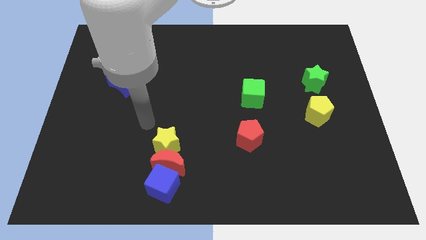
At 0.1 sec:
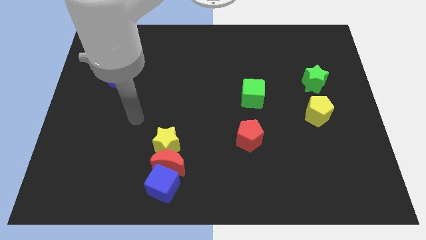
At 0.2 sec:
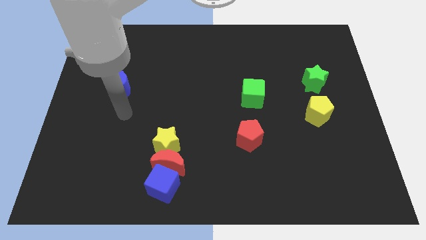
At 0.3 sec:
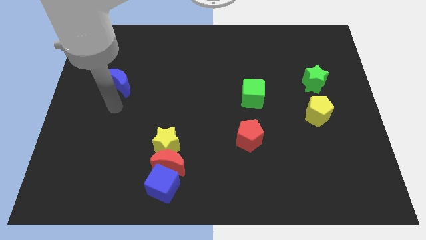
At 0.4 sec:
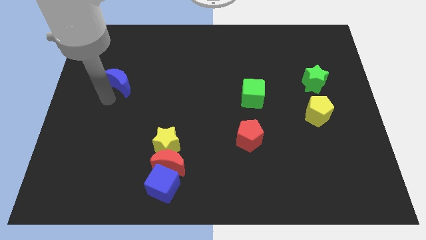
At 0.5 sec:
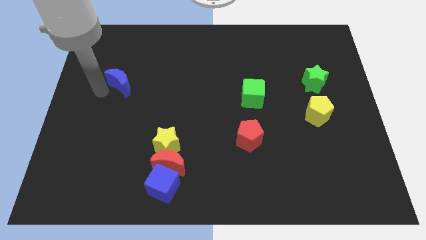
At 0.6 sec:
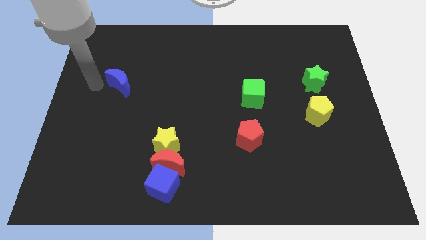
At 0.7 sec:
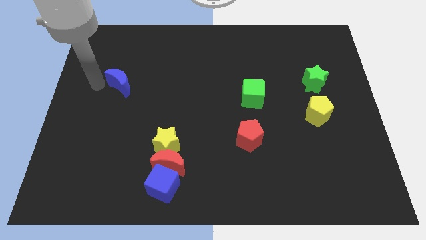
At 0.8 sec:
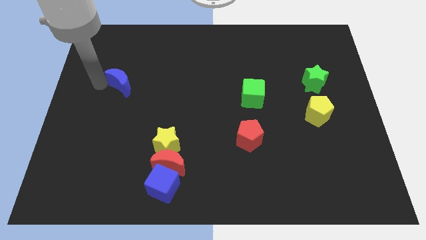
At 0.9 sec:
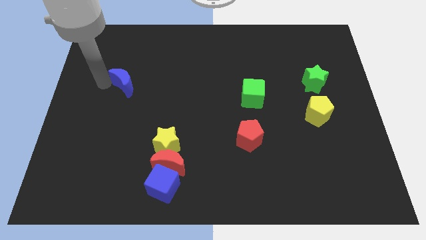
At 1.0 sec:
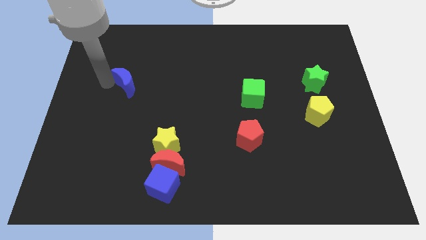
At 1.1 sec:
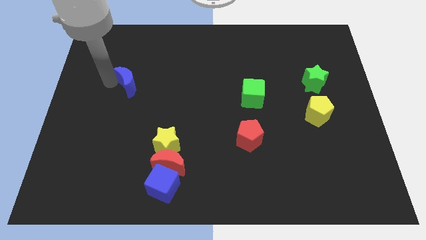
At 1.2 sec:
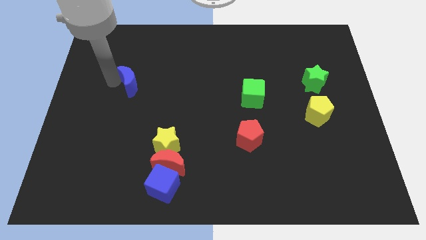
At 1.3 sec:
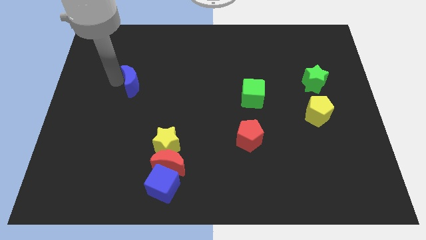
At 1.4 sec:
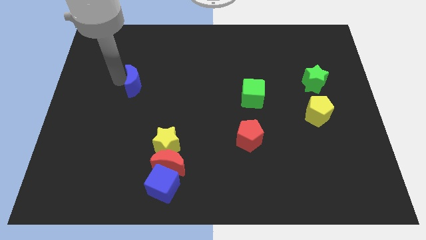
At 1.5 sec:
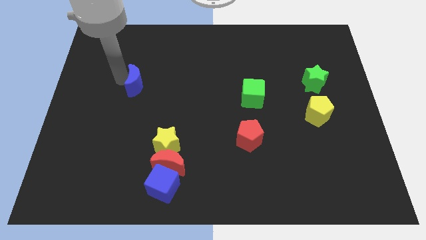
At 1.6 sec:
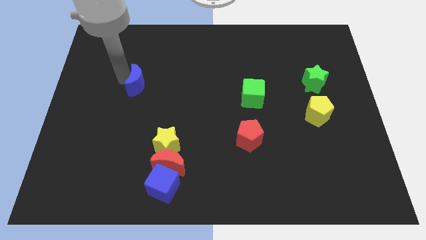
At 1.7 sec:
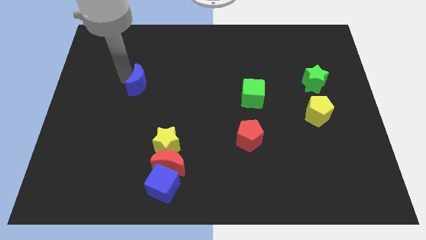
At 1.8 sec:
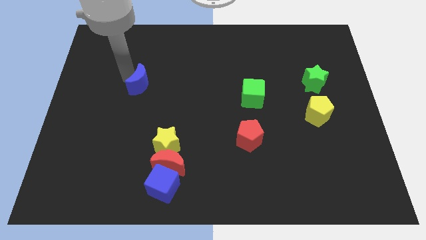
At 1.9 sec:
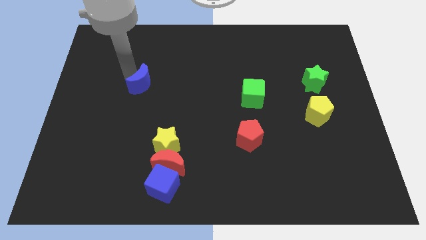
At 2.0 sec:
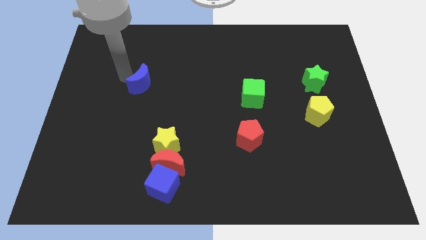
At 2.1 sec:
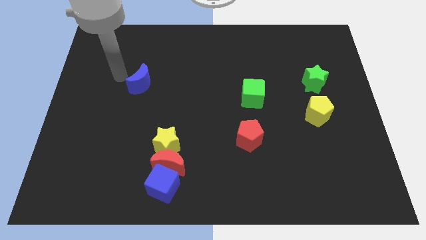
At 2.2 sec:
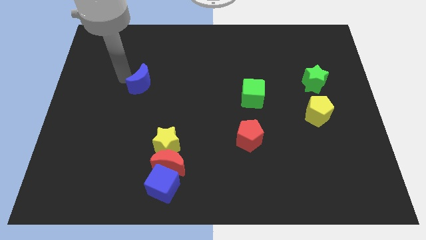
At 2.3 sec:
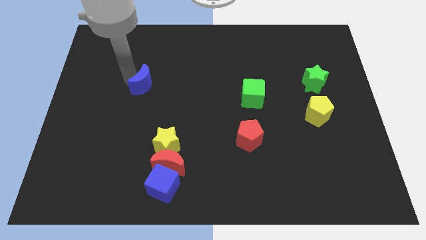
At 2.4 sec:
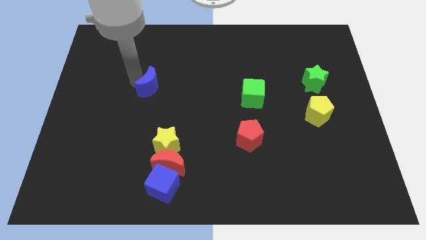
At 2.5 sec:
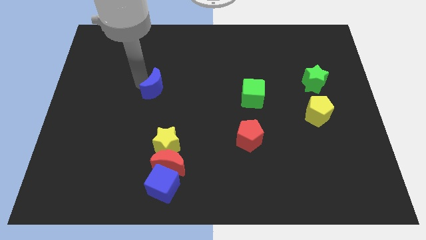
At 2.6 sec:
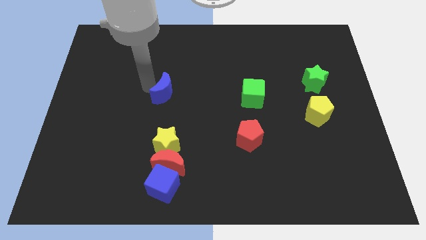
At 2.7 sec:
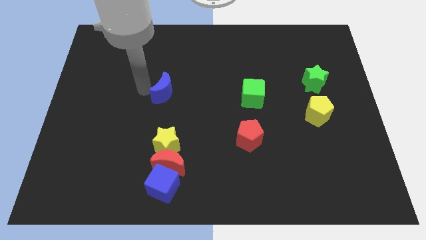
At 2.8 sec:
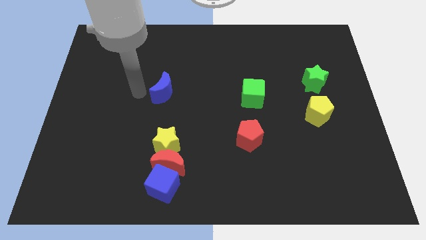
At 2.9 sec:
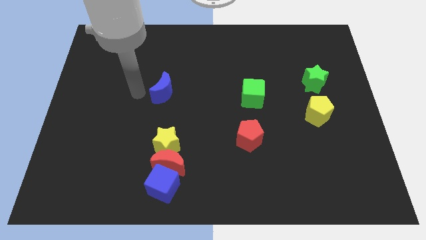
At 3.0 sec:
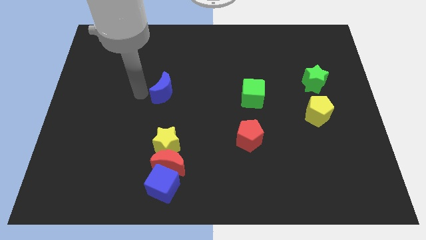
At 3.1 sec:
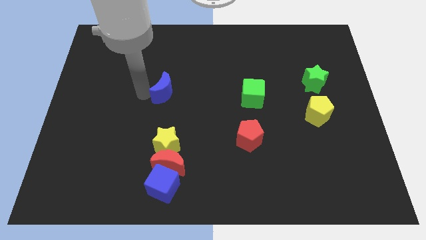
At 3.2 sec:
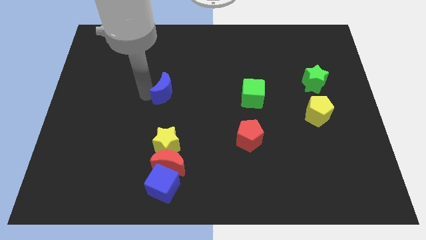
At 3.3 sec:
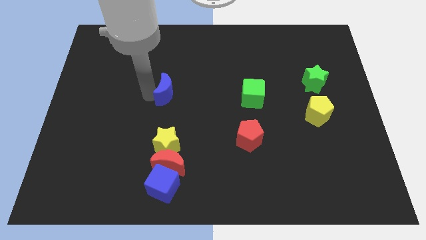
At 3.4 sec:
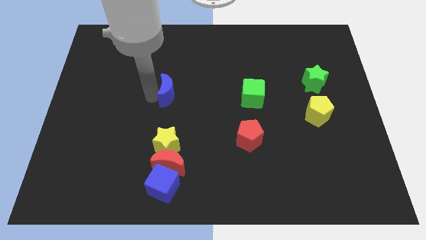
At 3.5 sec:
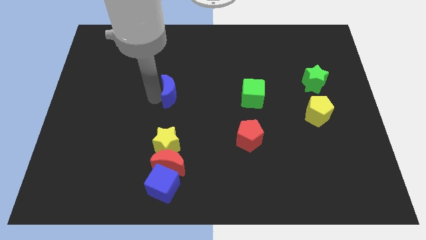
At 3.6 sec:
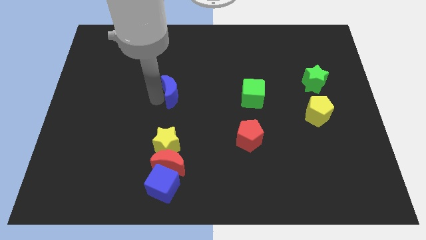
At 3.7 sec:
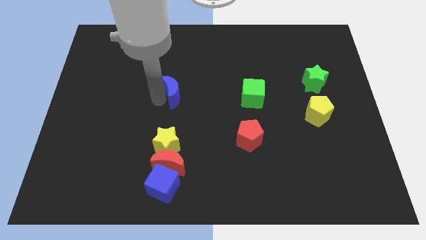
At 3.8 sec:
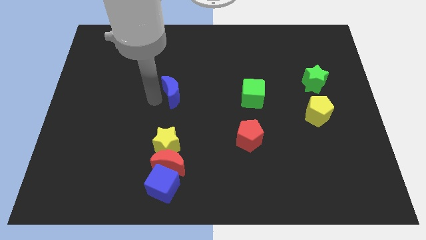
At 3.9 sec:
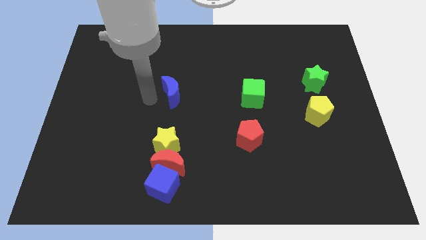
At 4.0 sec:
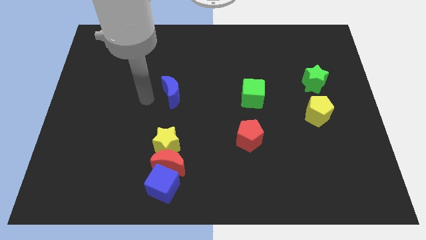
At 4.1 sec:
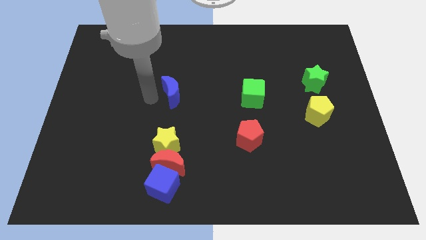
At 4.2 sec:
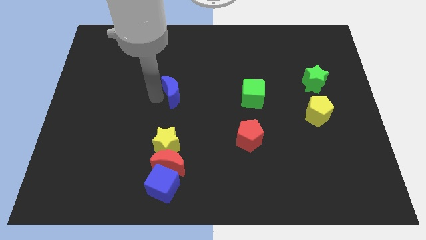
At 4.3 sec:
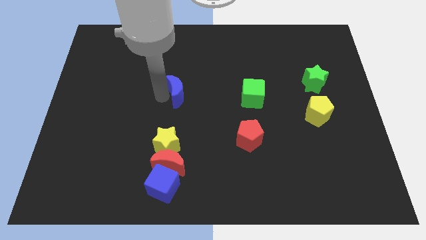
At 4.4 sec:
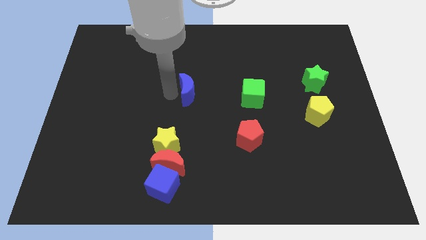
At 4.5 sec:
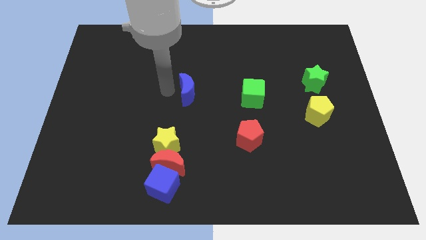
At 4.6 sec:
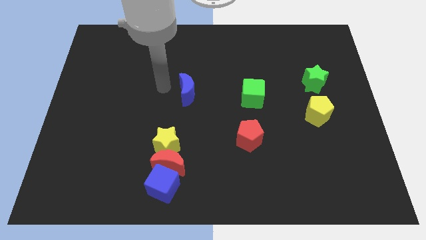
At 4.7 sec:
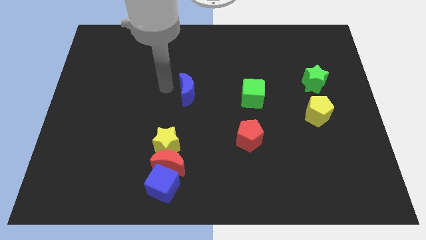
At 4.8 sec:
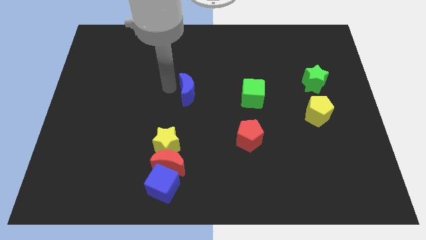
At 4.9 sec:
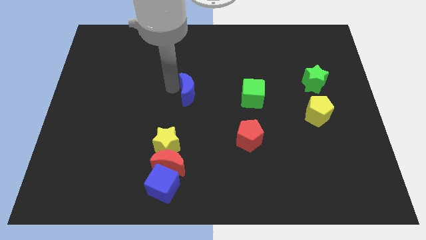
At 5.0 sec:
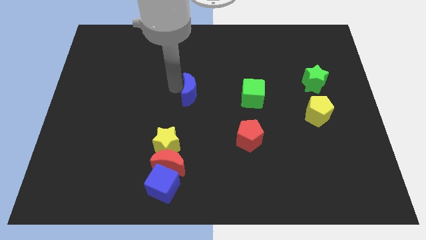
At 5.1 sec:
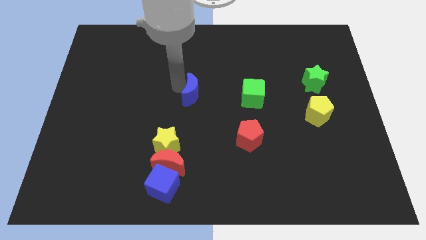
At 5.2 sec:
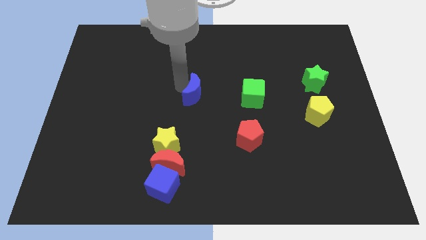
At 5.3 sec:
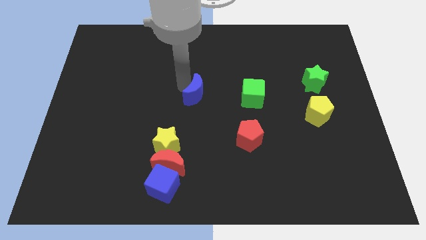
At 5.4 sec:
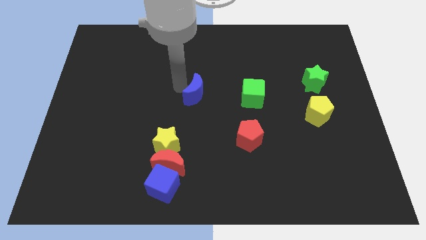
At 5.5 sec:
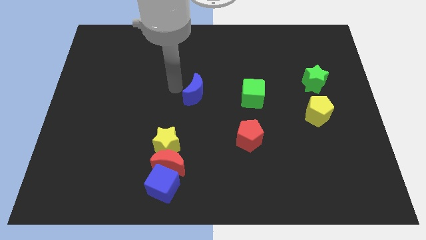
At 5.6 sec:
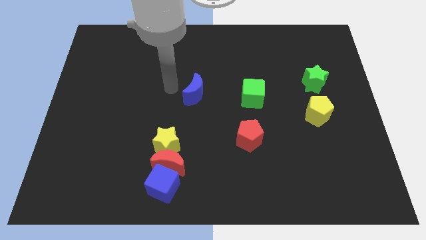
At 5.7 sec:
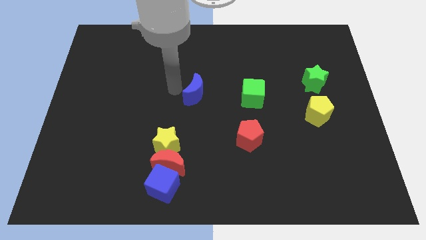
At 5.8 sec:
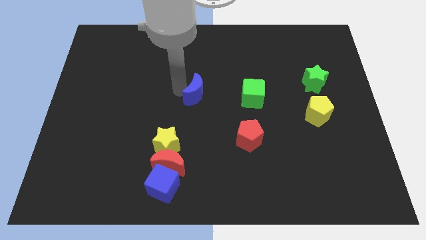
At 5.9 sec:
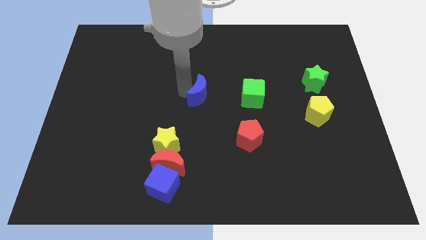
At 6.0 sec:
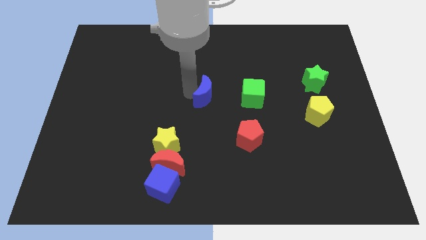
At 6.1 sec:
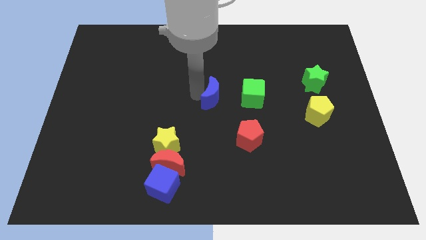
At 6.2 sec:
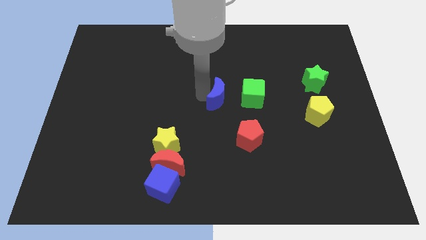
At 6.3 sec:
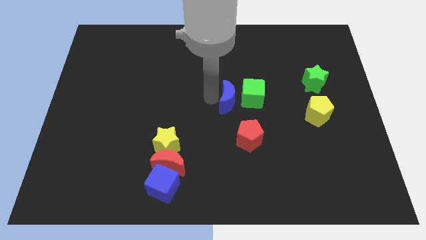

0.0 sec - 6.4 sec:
put the blue moon close to the green cube

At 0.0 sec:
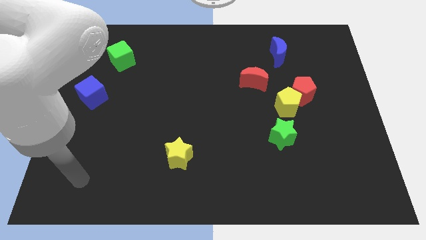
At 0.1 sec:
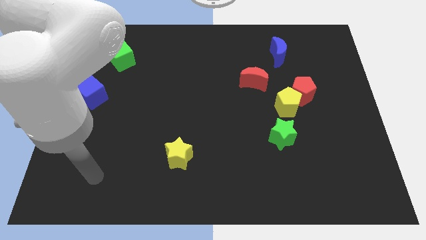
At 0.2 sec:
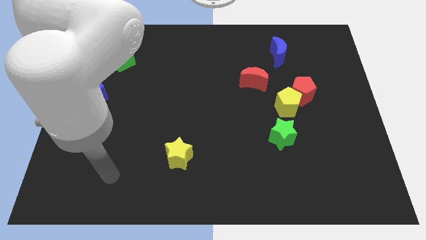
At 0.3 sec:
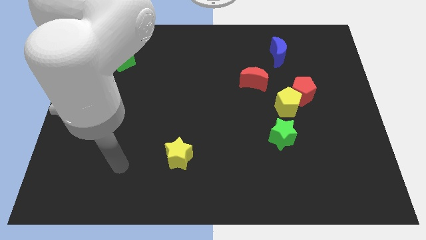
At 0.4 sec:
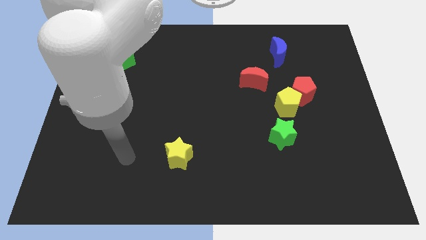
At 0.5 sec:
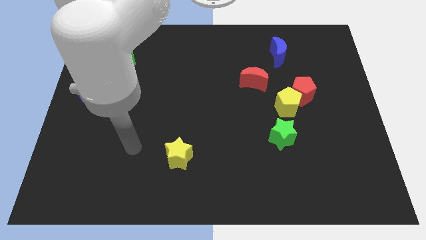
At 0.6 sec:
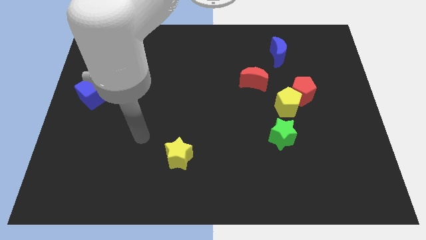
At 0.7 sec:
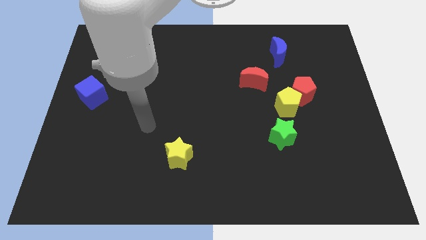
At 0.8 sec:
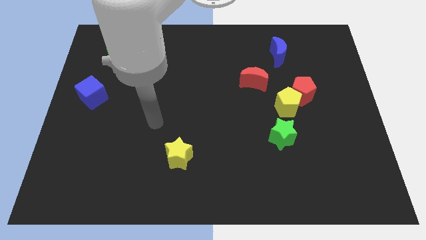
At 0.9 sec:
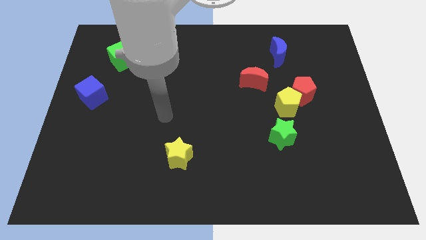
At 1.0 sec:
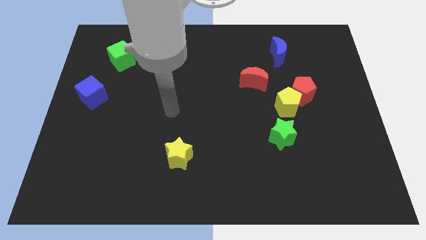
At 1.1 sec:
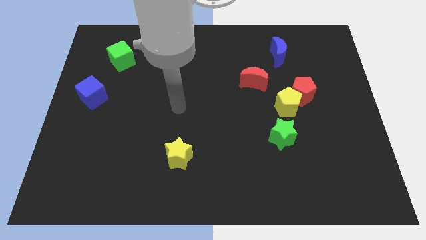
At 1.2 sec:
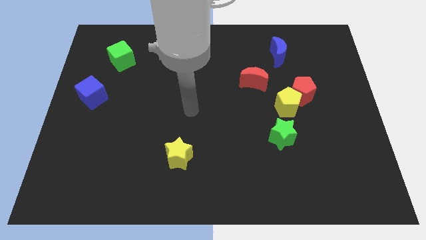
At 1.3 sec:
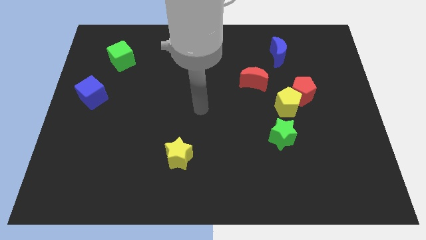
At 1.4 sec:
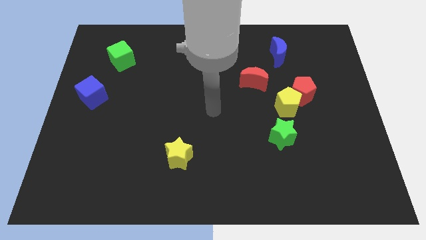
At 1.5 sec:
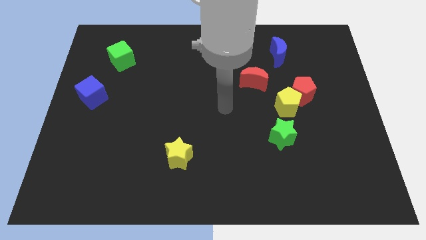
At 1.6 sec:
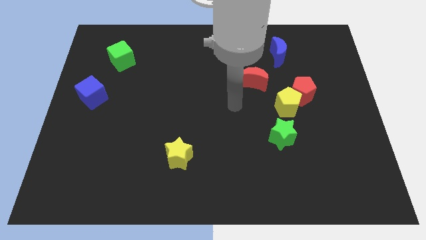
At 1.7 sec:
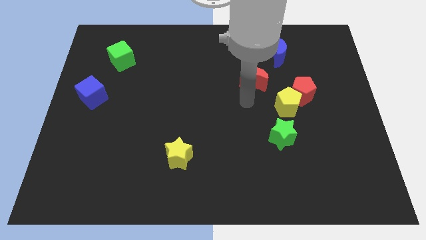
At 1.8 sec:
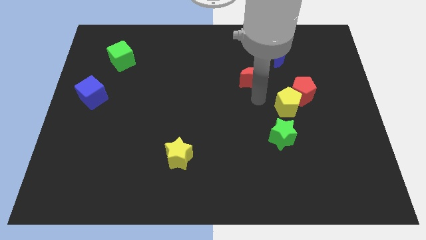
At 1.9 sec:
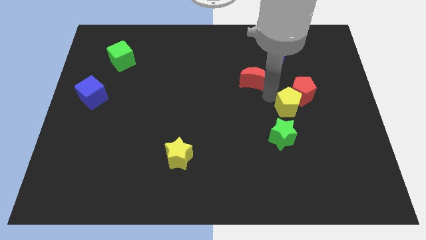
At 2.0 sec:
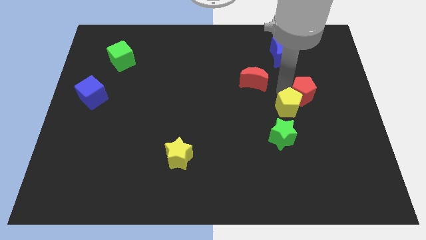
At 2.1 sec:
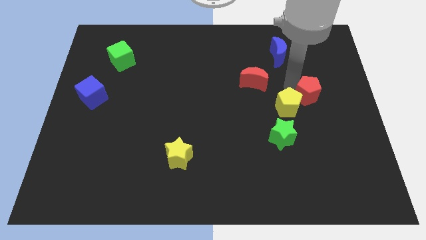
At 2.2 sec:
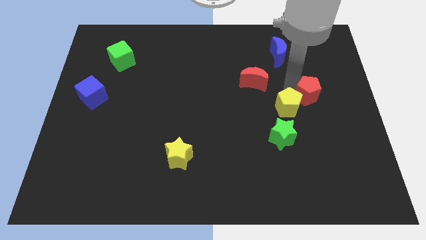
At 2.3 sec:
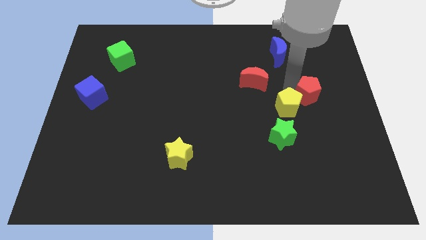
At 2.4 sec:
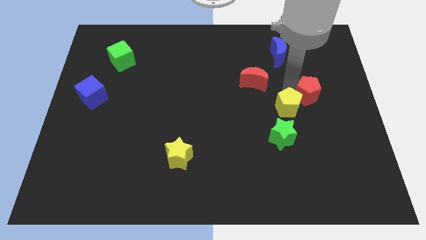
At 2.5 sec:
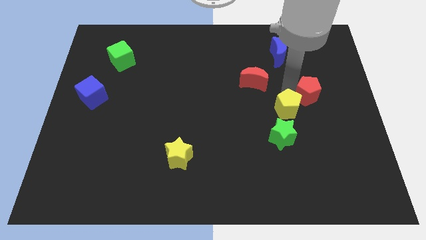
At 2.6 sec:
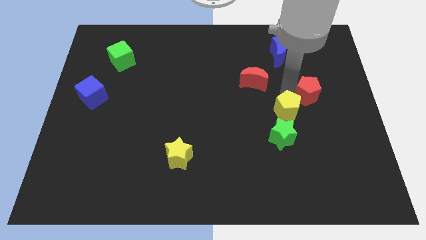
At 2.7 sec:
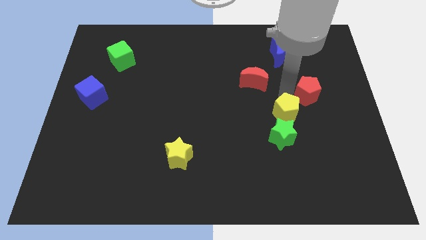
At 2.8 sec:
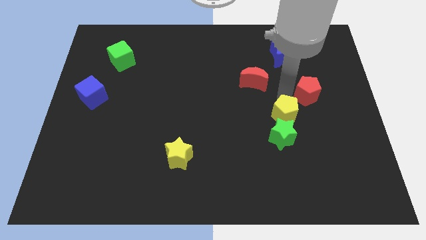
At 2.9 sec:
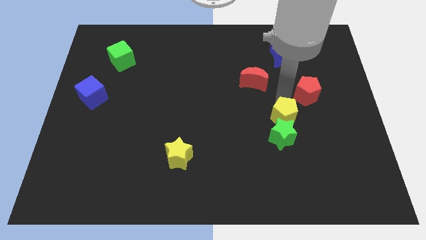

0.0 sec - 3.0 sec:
push the yellow pentagon close to the green star
